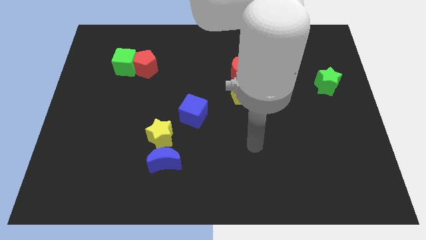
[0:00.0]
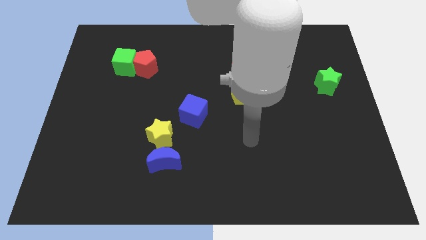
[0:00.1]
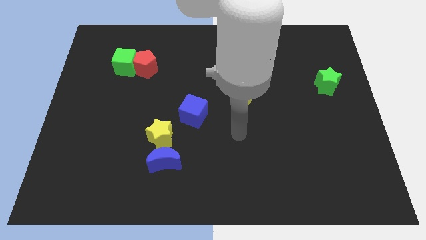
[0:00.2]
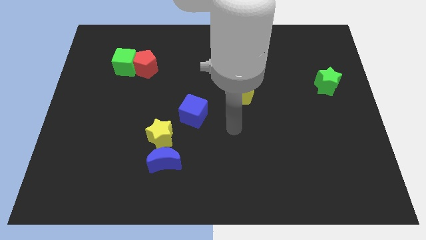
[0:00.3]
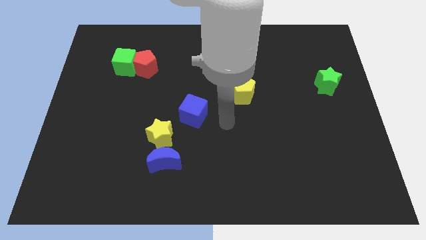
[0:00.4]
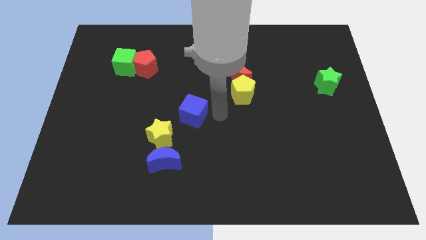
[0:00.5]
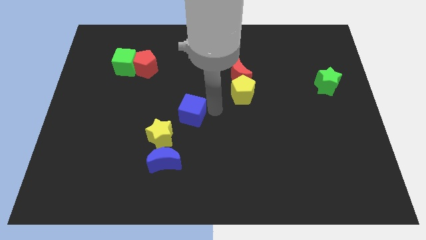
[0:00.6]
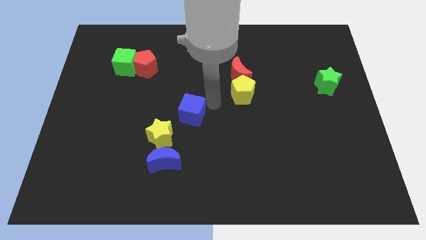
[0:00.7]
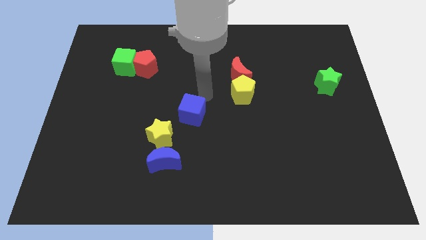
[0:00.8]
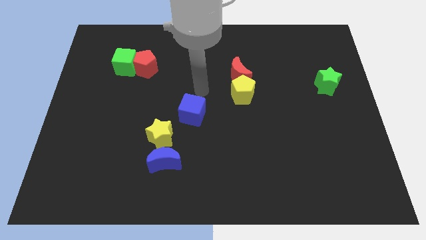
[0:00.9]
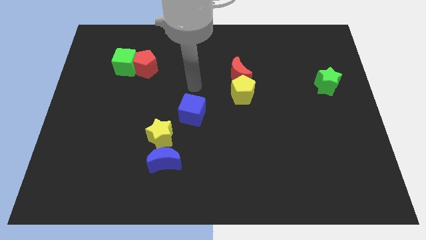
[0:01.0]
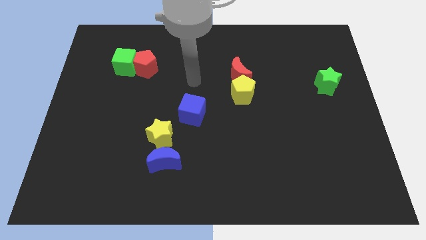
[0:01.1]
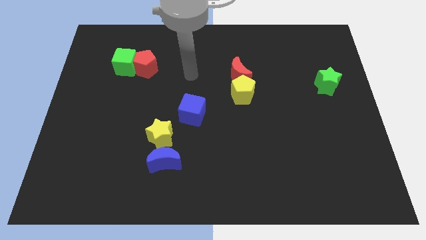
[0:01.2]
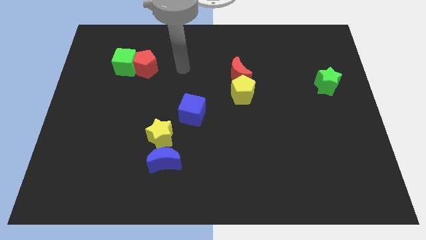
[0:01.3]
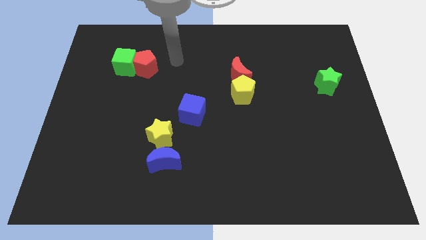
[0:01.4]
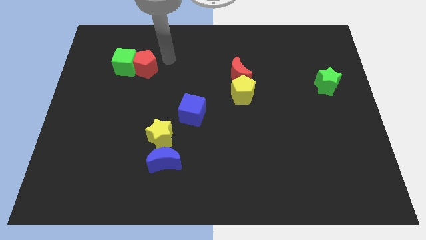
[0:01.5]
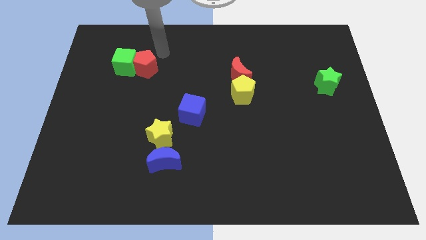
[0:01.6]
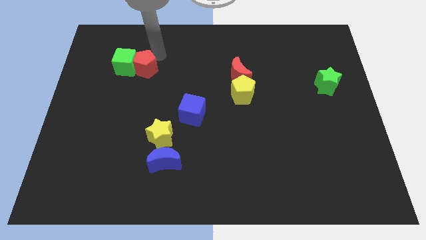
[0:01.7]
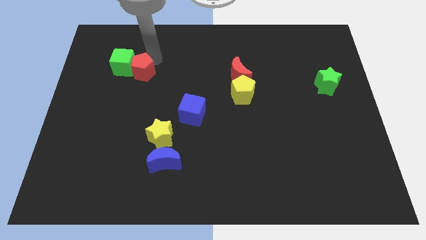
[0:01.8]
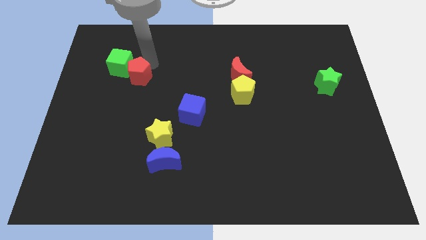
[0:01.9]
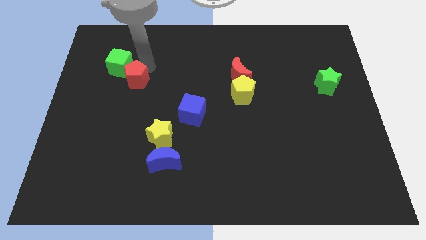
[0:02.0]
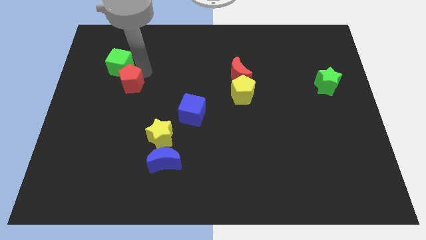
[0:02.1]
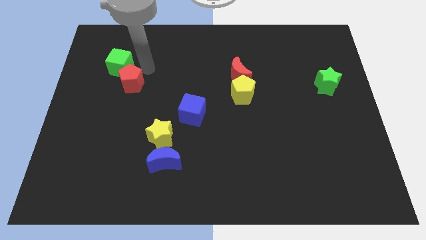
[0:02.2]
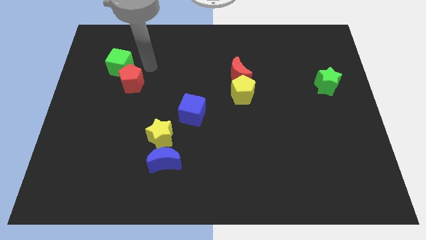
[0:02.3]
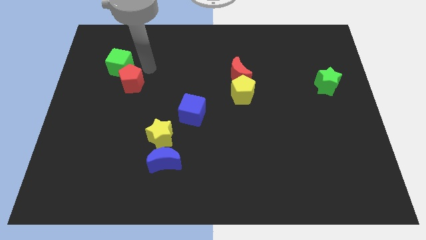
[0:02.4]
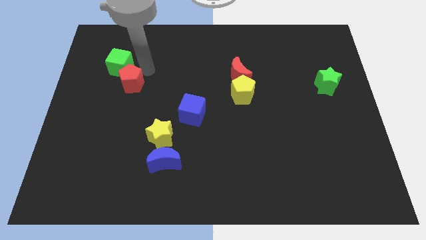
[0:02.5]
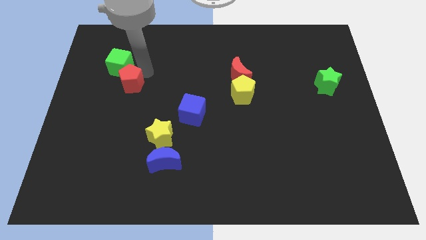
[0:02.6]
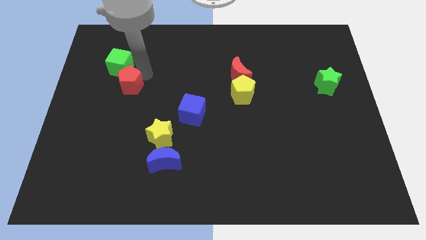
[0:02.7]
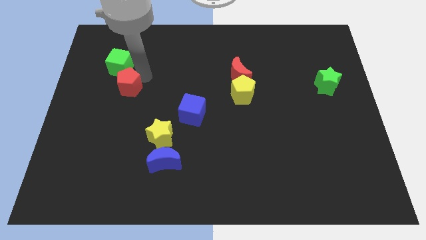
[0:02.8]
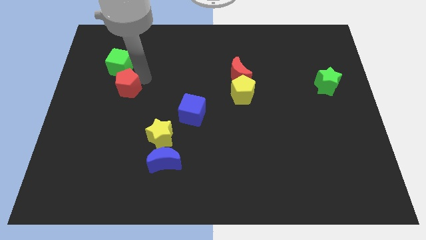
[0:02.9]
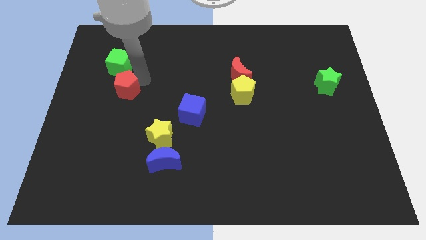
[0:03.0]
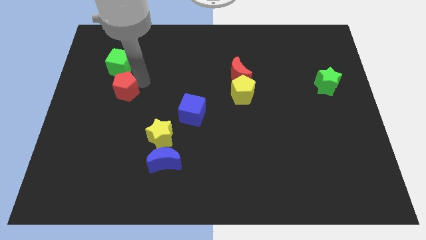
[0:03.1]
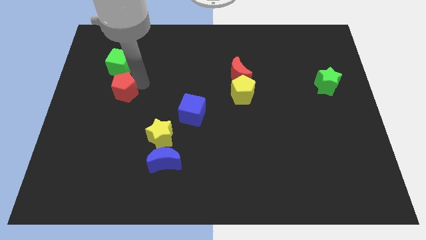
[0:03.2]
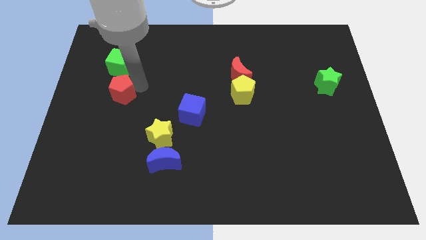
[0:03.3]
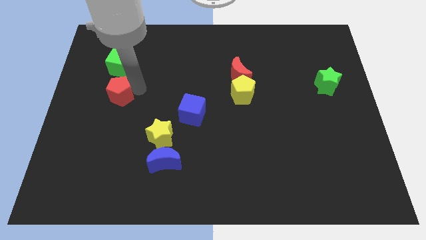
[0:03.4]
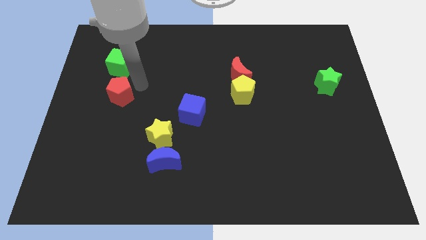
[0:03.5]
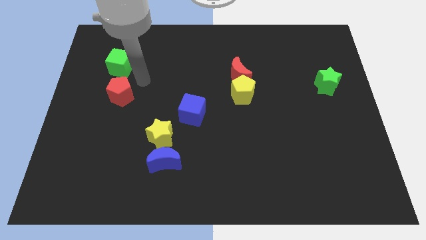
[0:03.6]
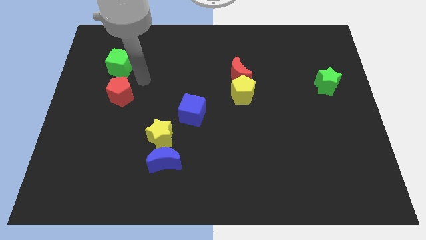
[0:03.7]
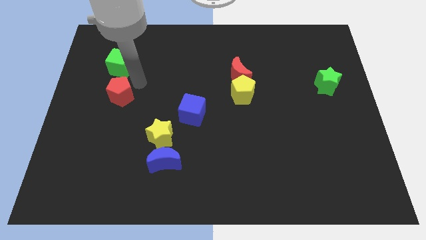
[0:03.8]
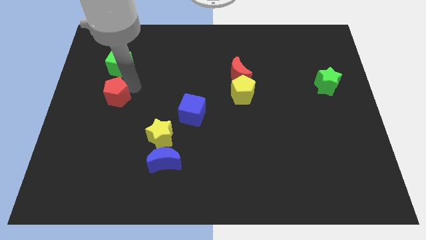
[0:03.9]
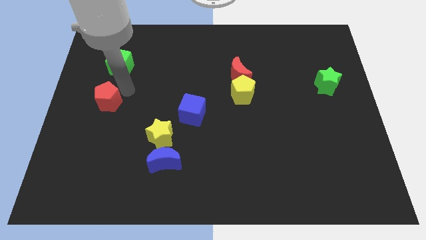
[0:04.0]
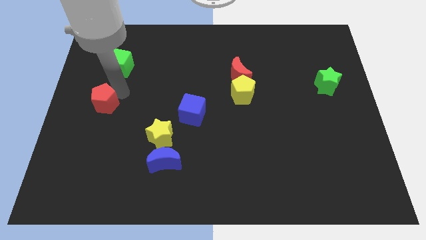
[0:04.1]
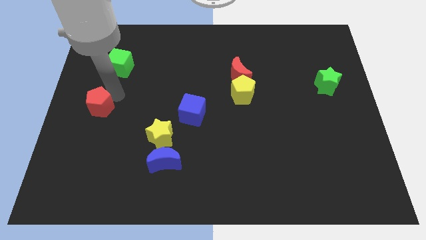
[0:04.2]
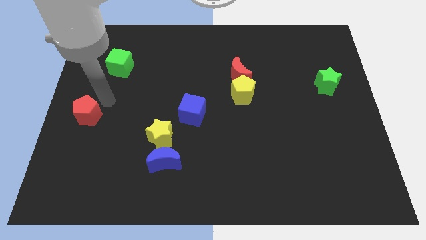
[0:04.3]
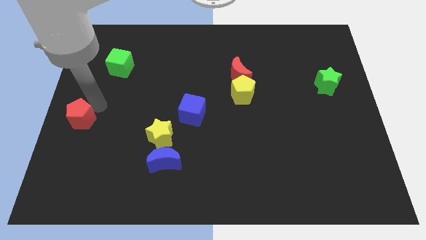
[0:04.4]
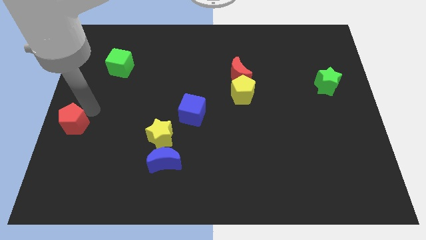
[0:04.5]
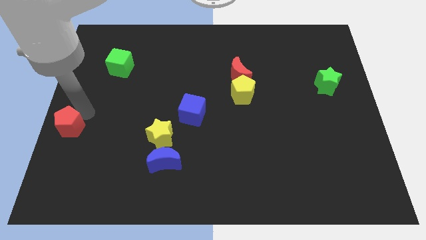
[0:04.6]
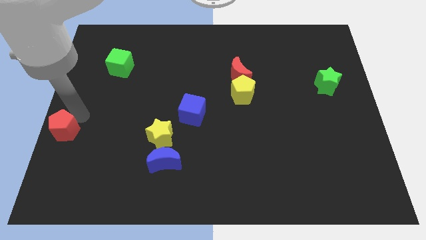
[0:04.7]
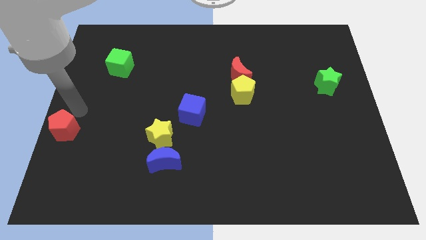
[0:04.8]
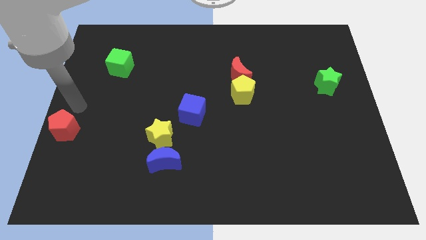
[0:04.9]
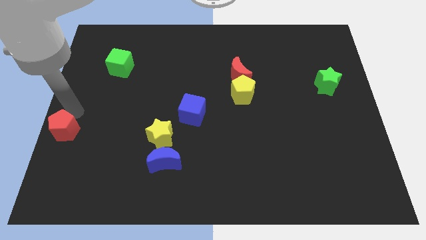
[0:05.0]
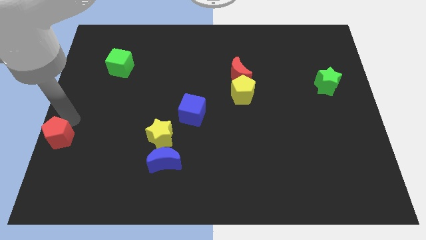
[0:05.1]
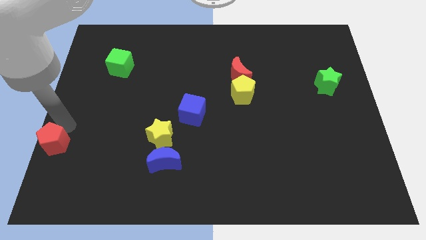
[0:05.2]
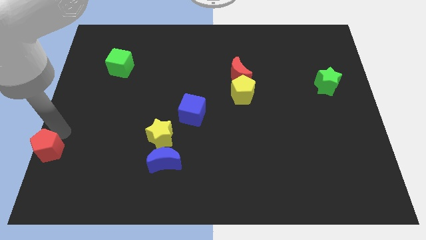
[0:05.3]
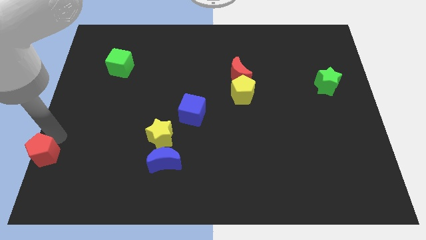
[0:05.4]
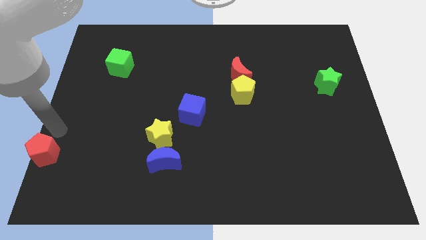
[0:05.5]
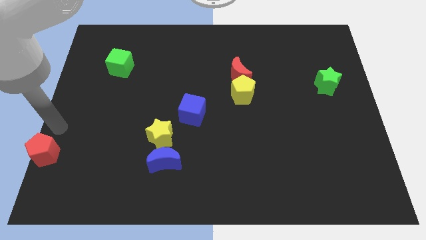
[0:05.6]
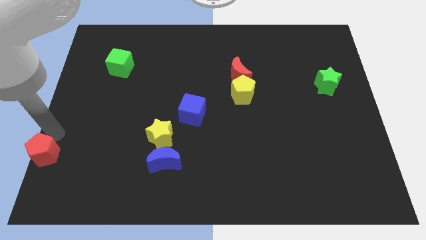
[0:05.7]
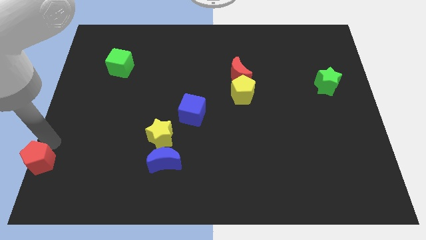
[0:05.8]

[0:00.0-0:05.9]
move the red pentagon to the lower left corner
